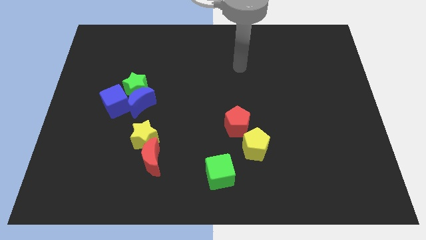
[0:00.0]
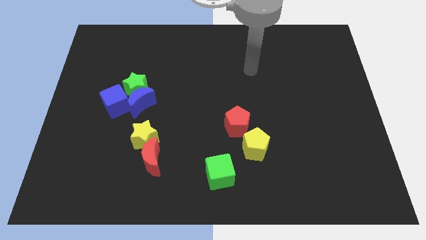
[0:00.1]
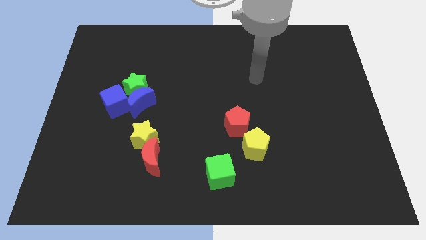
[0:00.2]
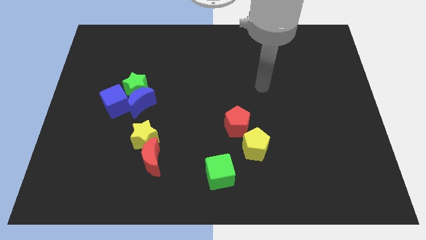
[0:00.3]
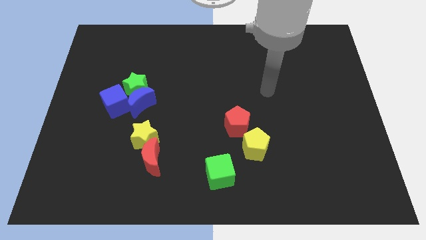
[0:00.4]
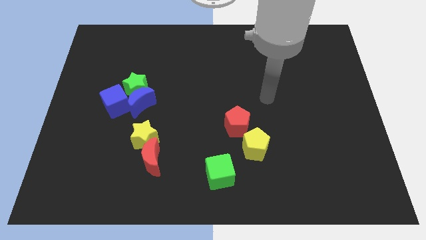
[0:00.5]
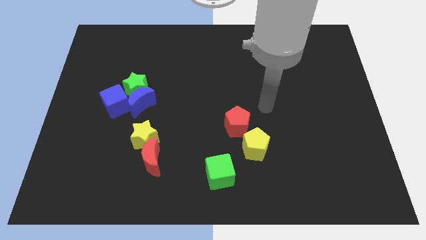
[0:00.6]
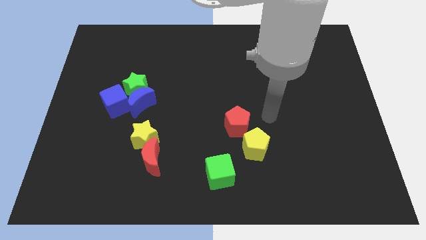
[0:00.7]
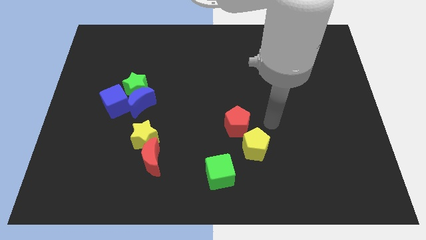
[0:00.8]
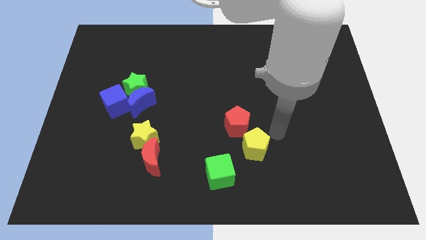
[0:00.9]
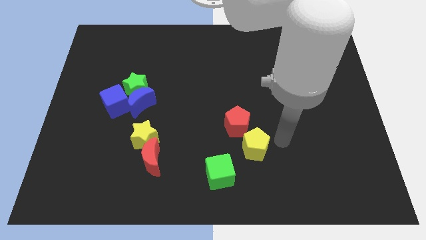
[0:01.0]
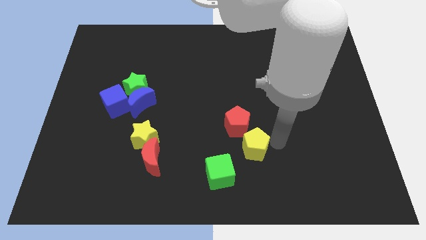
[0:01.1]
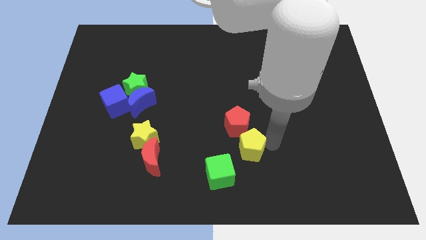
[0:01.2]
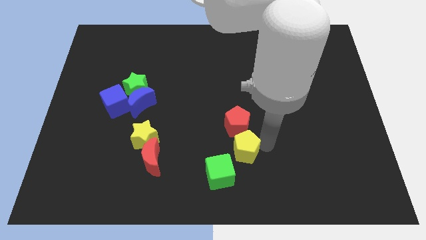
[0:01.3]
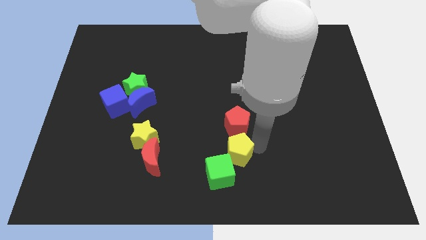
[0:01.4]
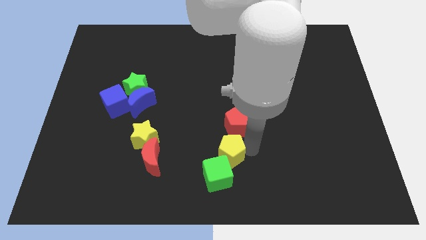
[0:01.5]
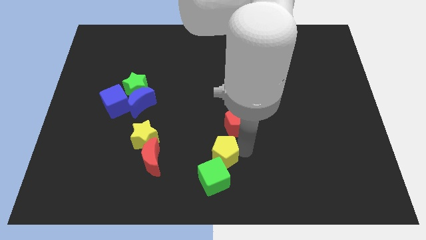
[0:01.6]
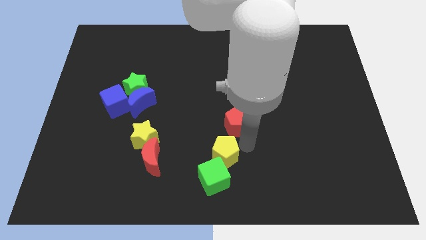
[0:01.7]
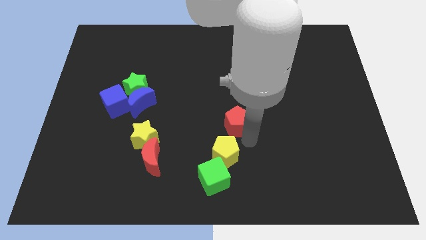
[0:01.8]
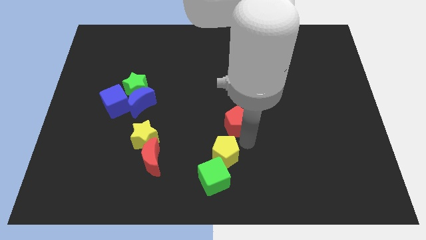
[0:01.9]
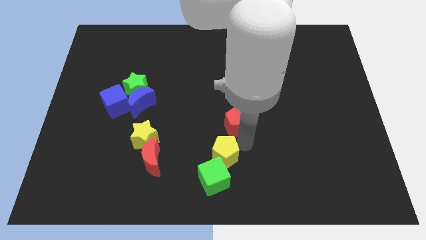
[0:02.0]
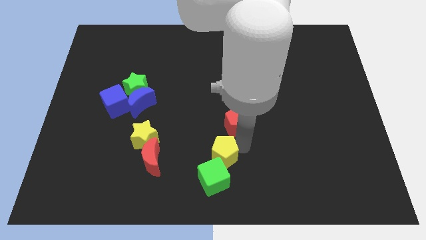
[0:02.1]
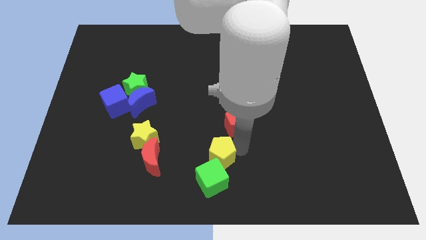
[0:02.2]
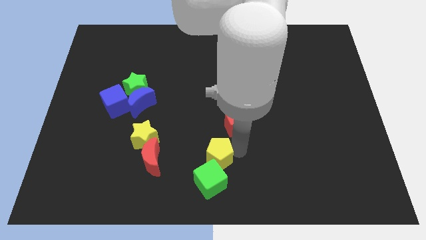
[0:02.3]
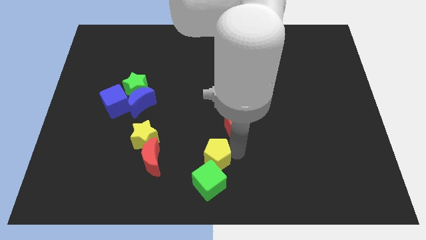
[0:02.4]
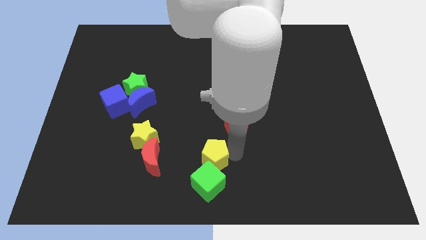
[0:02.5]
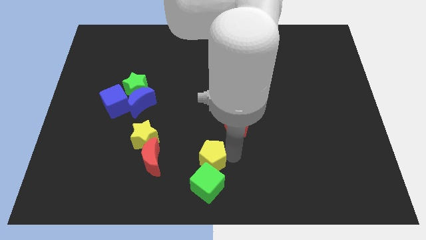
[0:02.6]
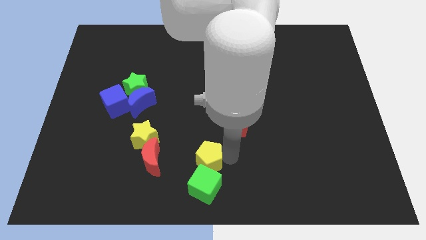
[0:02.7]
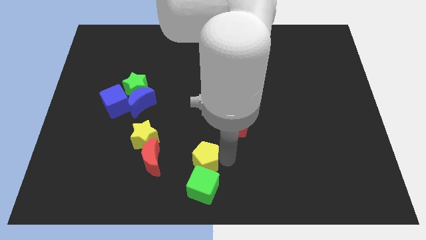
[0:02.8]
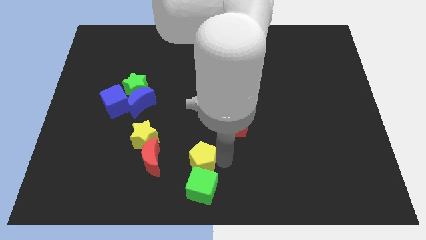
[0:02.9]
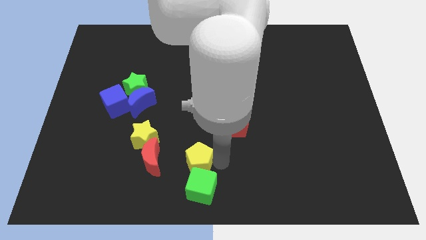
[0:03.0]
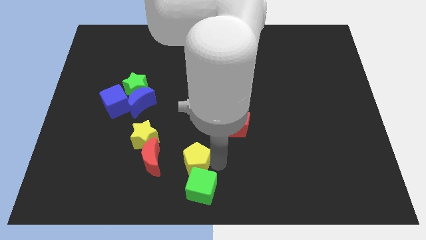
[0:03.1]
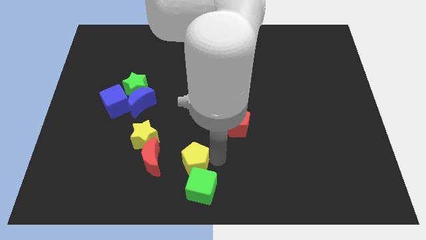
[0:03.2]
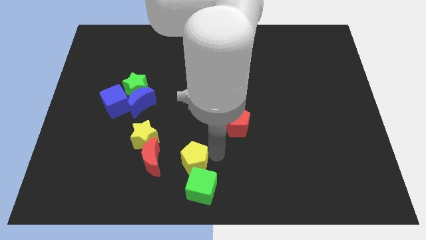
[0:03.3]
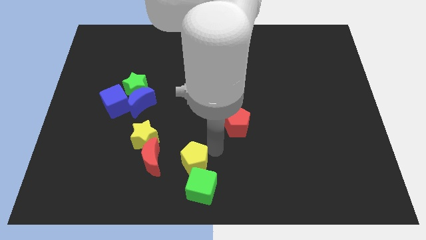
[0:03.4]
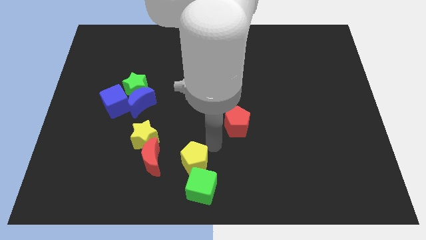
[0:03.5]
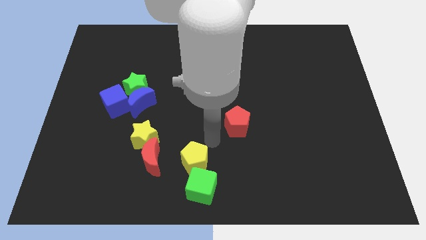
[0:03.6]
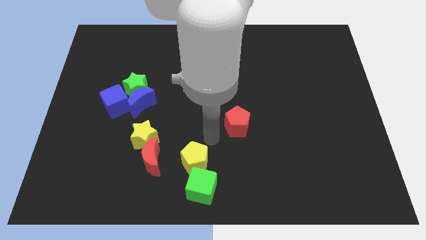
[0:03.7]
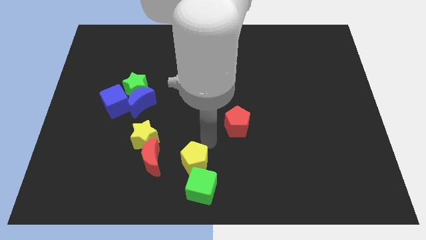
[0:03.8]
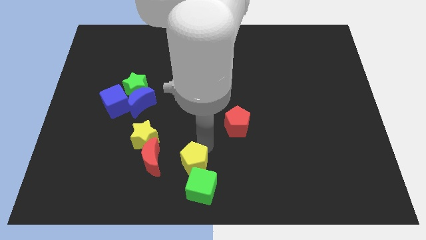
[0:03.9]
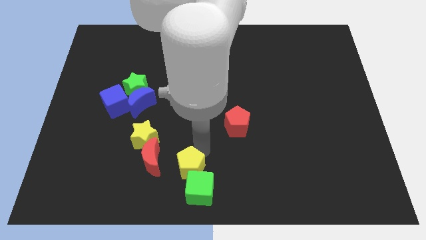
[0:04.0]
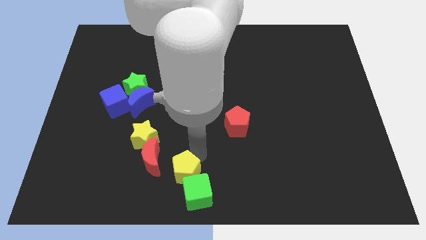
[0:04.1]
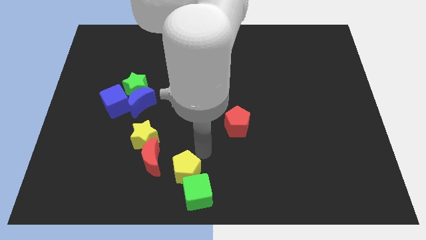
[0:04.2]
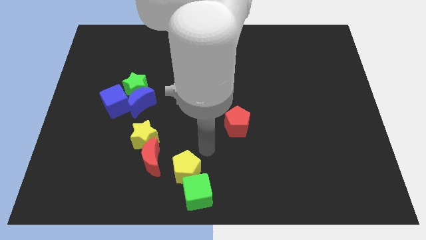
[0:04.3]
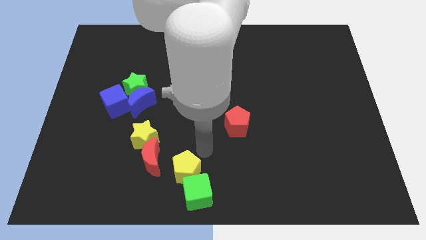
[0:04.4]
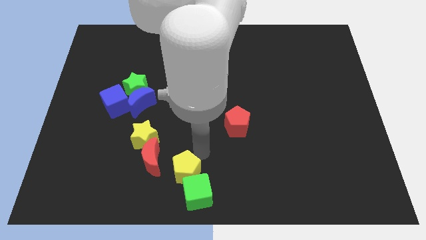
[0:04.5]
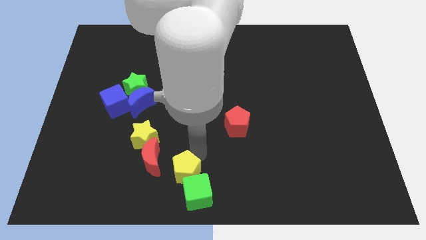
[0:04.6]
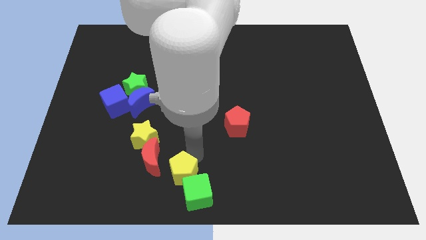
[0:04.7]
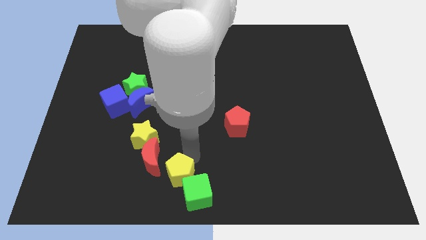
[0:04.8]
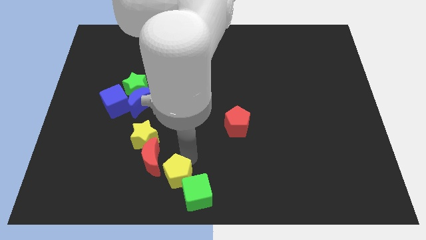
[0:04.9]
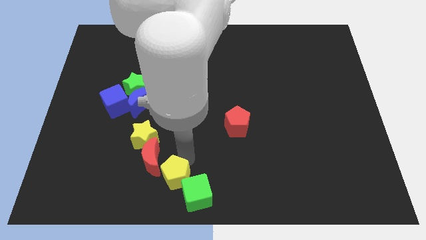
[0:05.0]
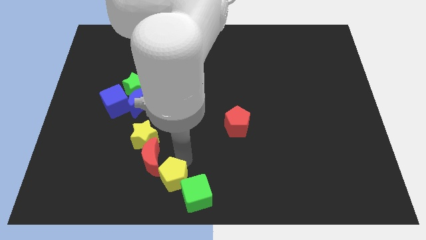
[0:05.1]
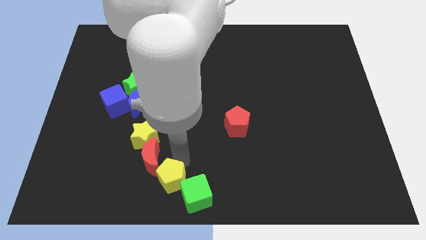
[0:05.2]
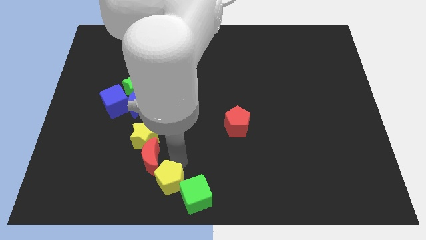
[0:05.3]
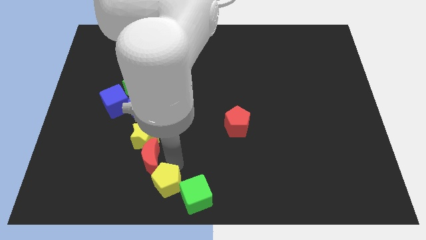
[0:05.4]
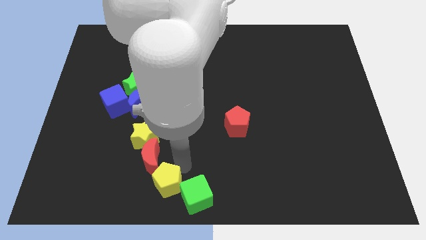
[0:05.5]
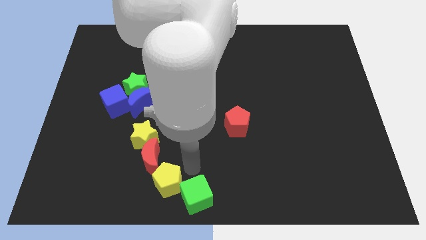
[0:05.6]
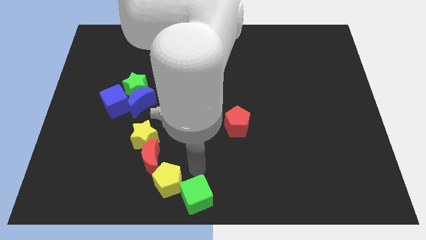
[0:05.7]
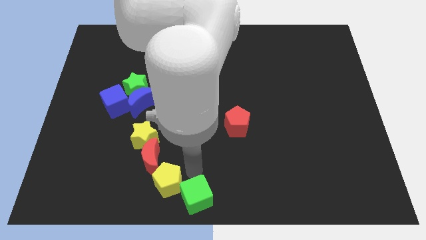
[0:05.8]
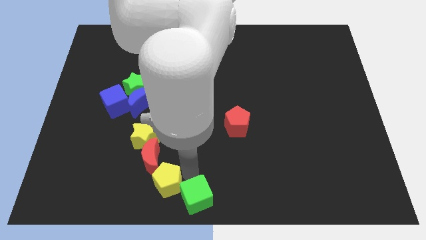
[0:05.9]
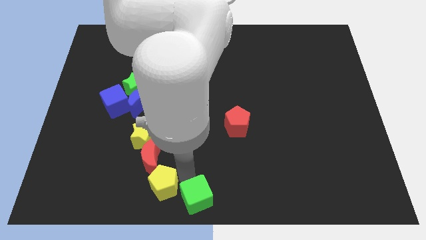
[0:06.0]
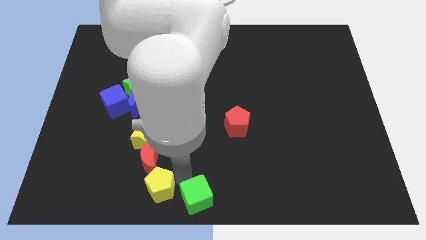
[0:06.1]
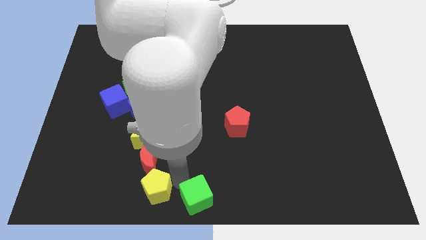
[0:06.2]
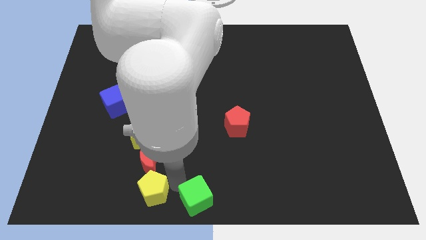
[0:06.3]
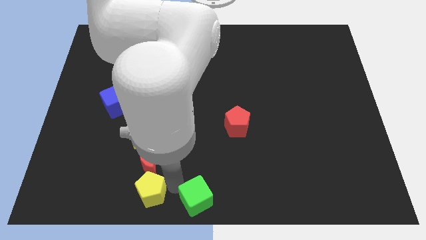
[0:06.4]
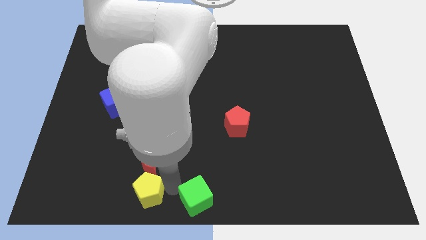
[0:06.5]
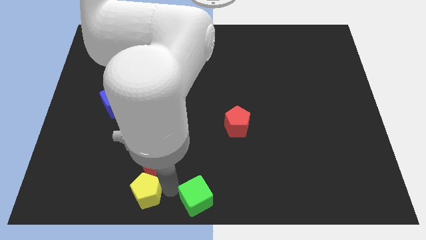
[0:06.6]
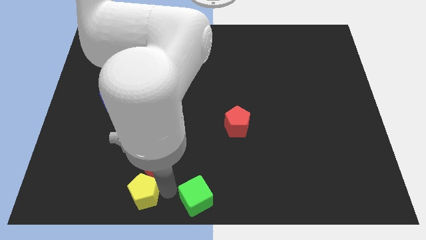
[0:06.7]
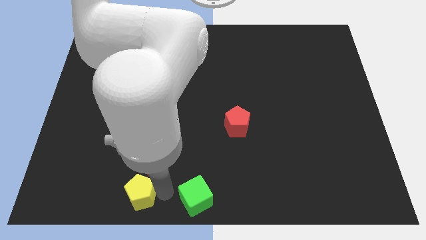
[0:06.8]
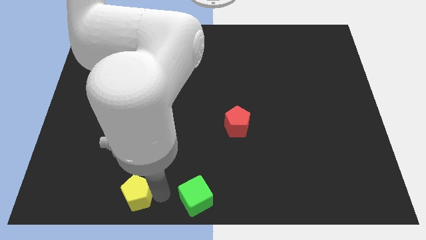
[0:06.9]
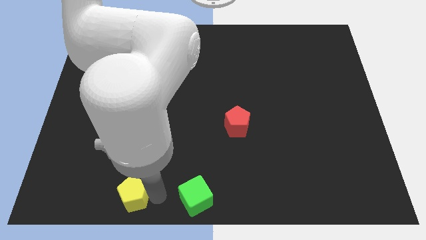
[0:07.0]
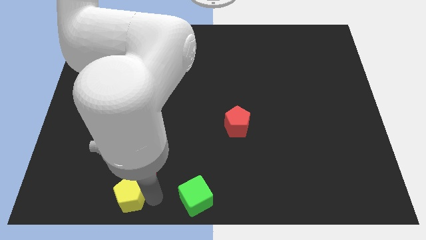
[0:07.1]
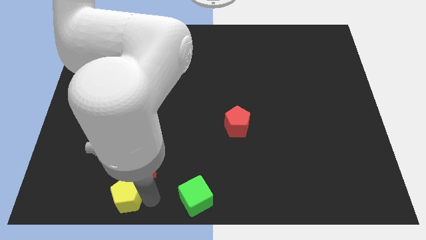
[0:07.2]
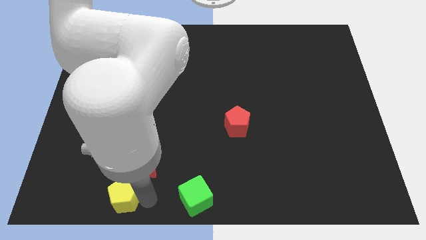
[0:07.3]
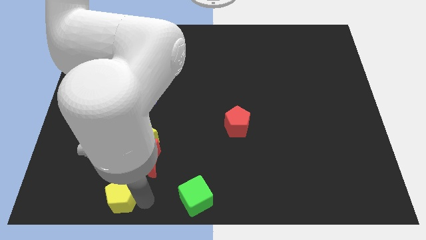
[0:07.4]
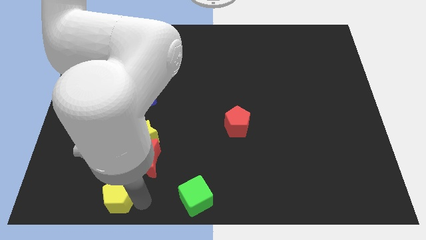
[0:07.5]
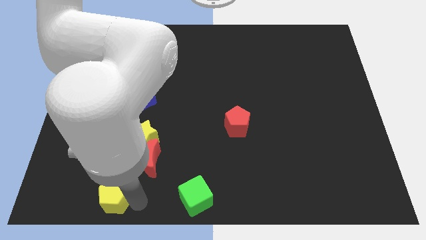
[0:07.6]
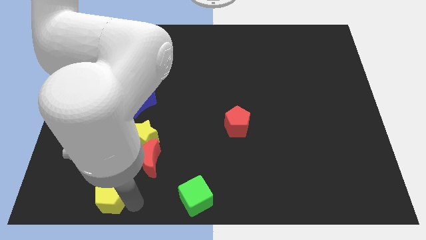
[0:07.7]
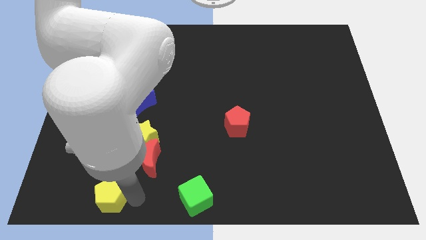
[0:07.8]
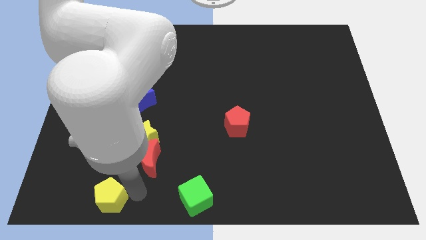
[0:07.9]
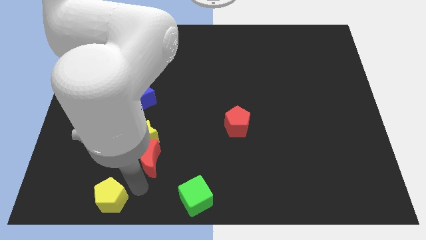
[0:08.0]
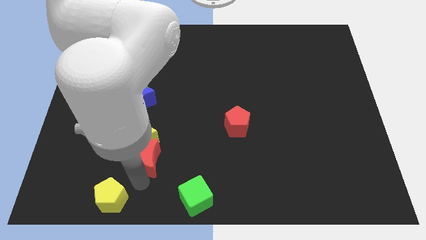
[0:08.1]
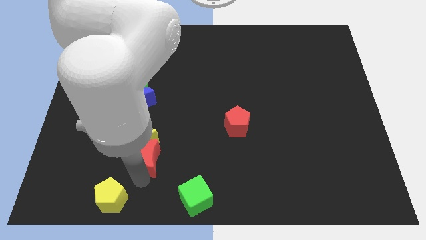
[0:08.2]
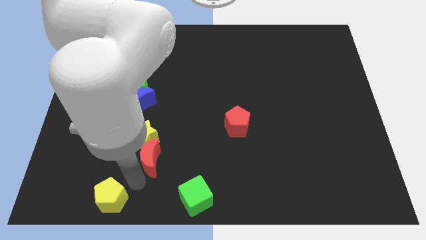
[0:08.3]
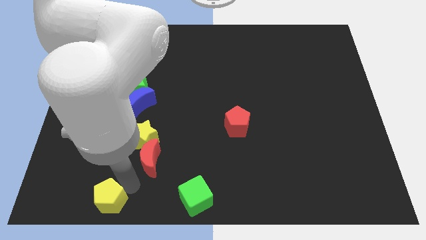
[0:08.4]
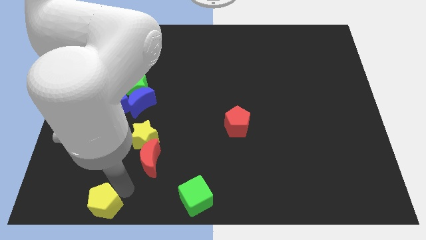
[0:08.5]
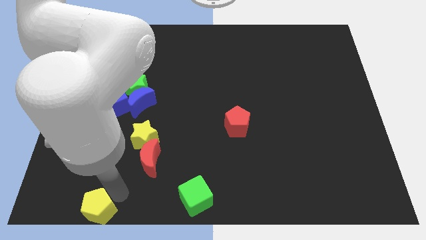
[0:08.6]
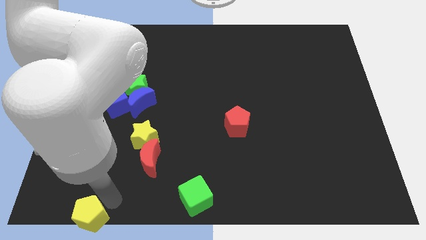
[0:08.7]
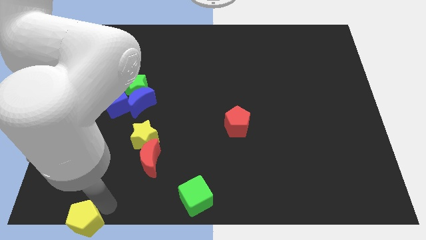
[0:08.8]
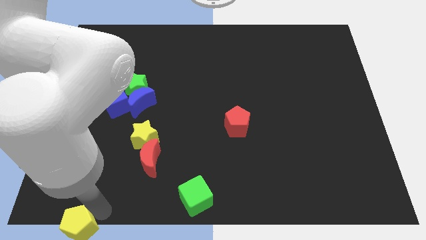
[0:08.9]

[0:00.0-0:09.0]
put the yellow pentagon to the bottom left of the board
